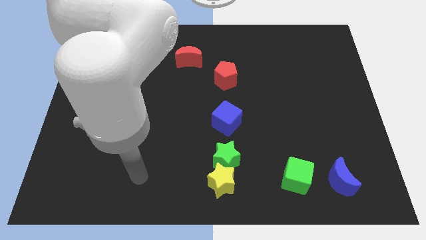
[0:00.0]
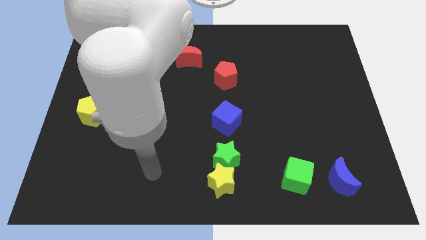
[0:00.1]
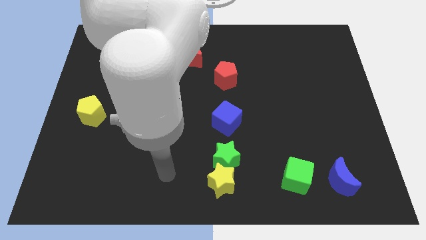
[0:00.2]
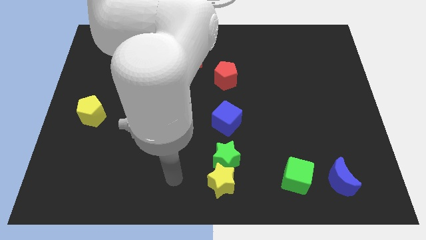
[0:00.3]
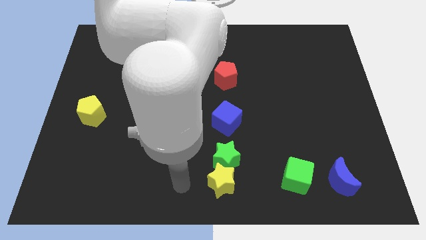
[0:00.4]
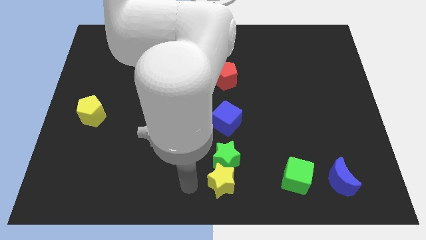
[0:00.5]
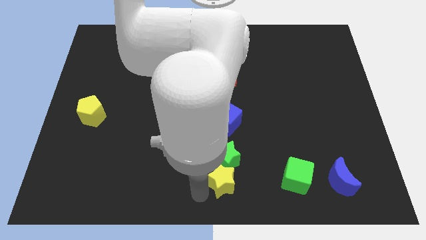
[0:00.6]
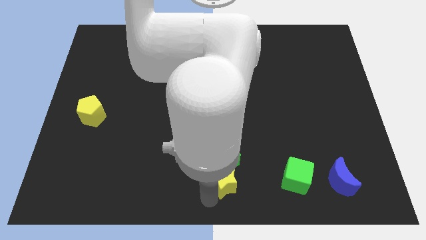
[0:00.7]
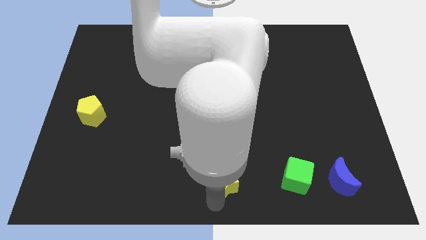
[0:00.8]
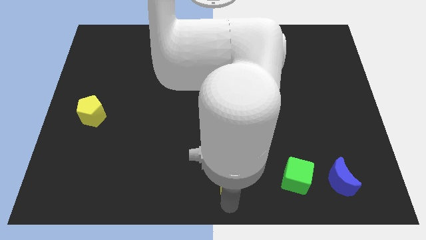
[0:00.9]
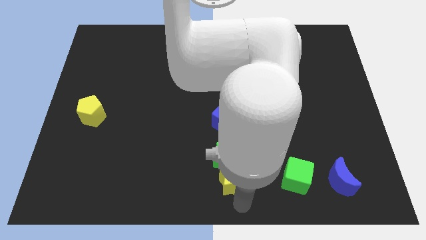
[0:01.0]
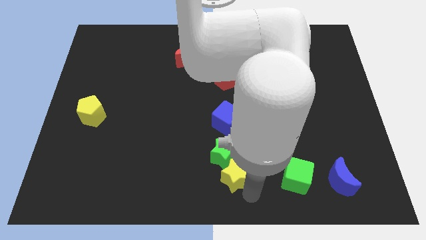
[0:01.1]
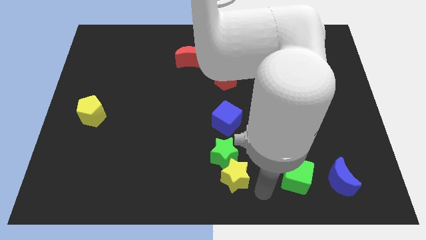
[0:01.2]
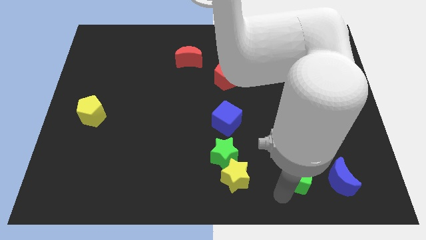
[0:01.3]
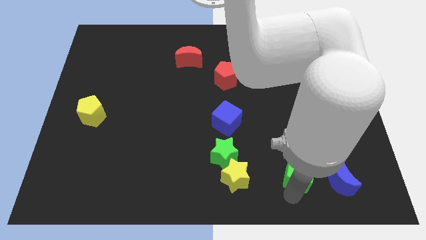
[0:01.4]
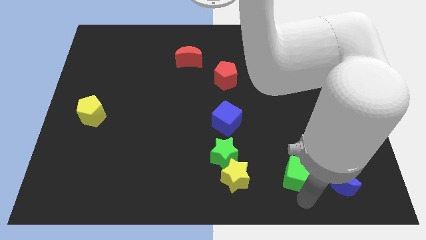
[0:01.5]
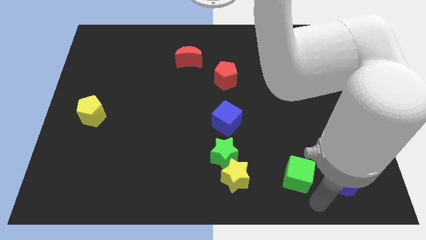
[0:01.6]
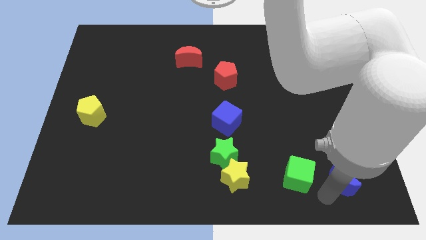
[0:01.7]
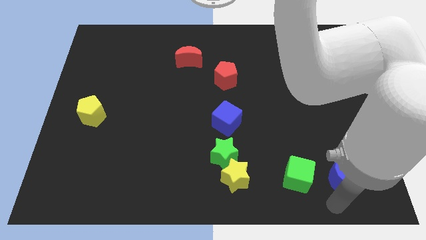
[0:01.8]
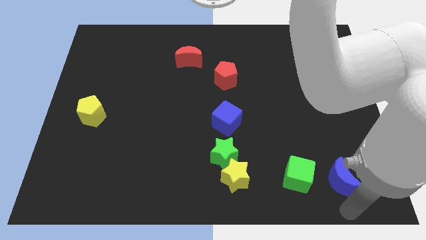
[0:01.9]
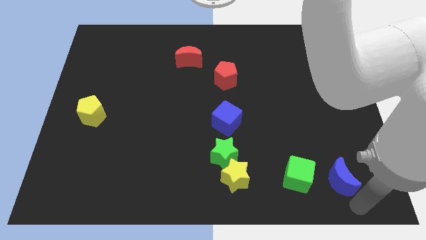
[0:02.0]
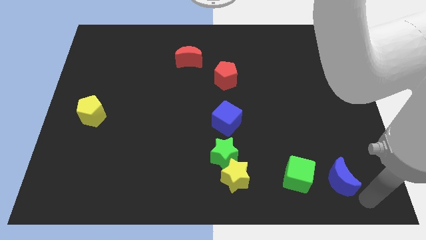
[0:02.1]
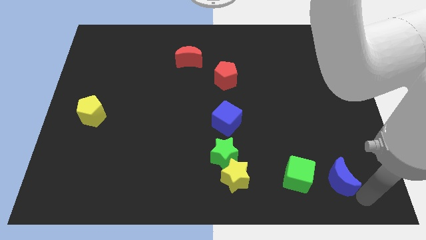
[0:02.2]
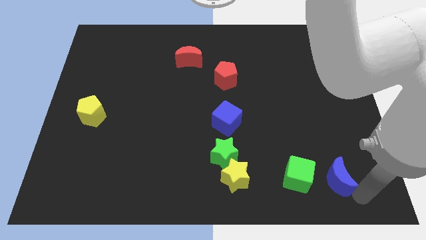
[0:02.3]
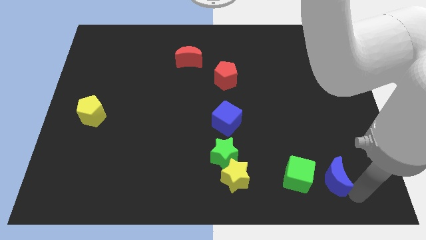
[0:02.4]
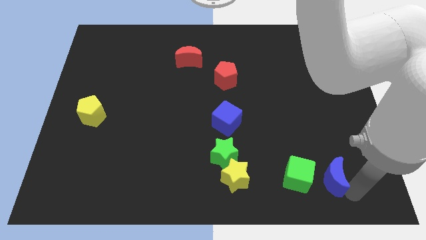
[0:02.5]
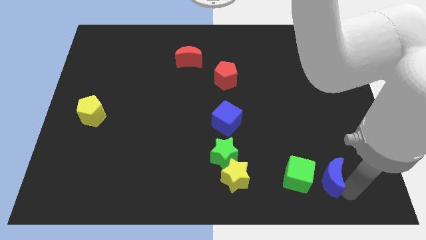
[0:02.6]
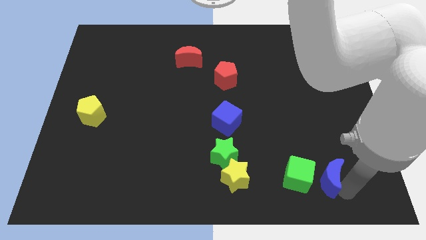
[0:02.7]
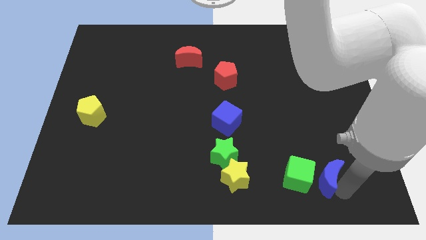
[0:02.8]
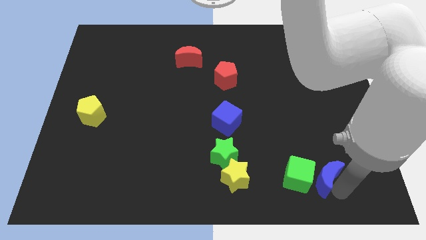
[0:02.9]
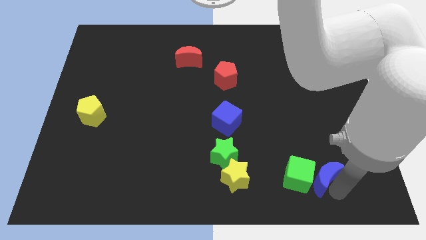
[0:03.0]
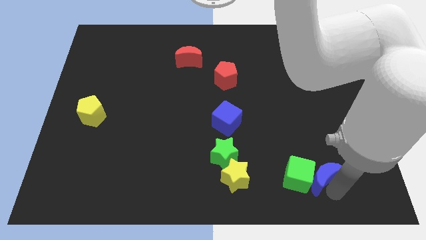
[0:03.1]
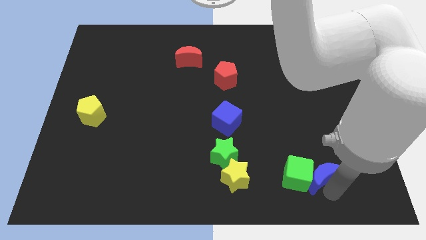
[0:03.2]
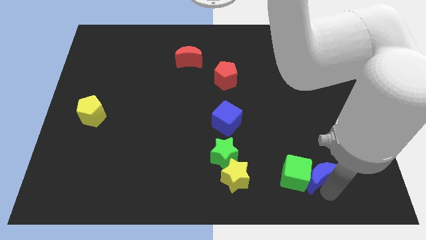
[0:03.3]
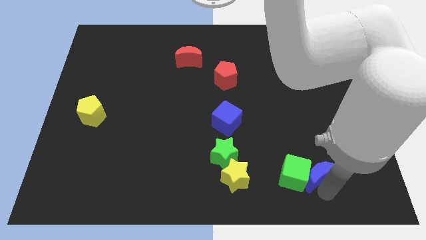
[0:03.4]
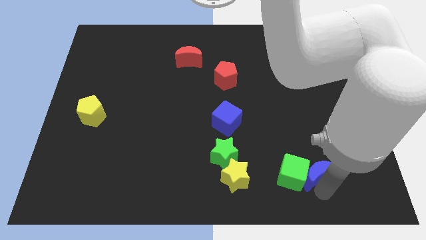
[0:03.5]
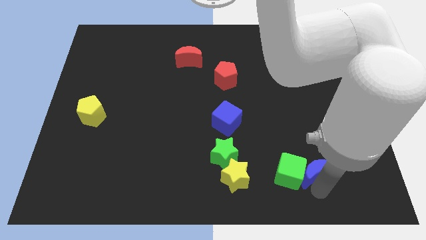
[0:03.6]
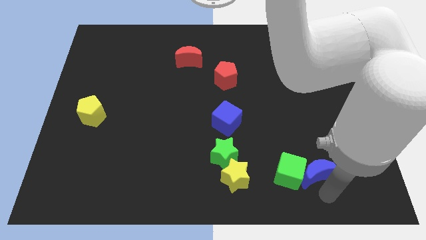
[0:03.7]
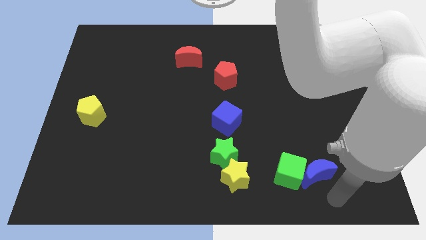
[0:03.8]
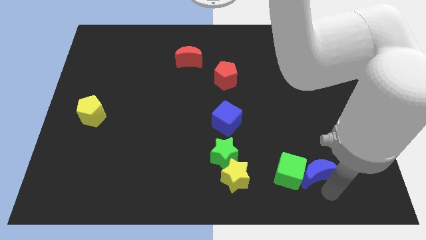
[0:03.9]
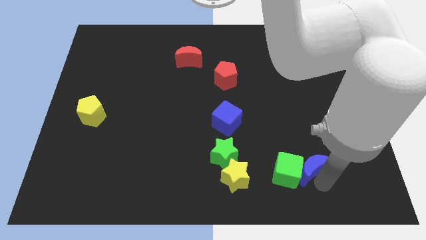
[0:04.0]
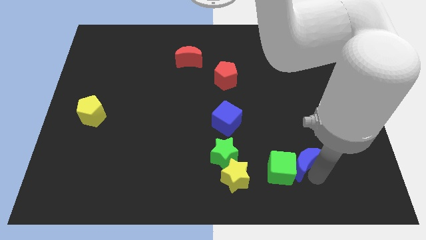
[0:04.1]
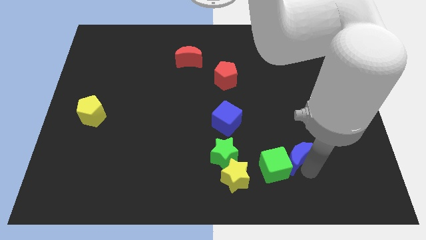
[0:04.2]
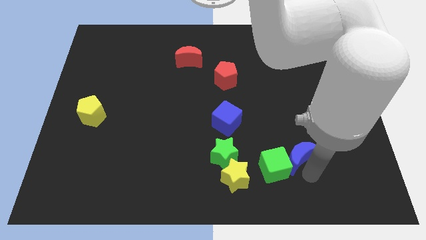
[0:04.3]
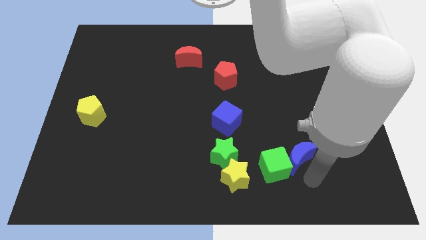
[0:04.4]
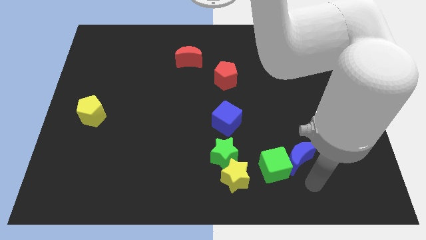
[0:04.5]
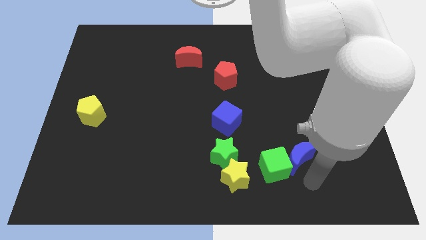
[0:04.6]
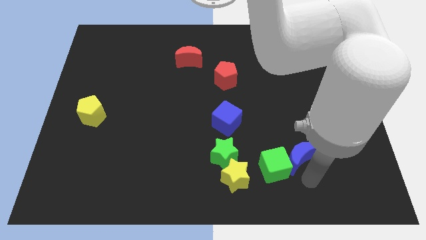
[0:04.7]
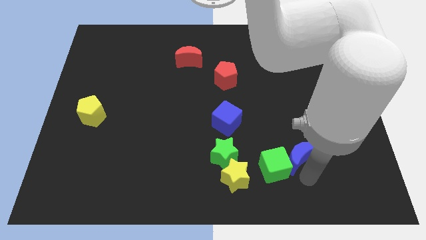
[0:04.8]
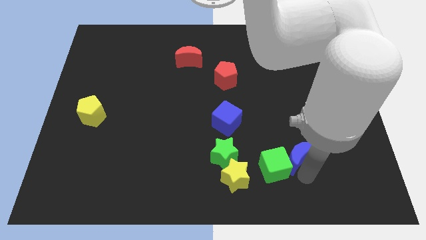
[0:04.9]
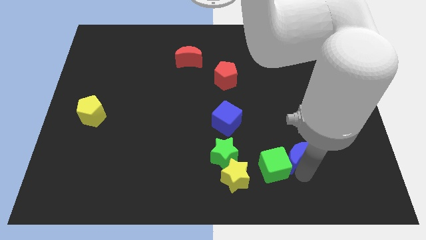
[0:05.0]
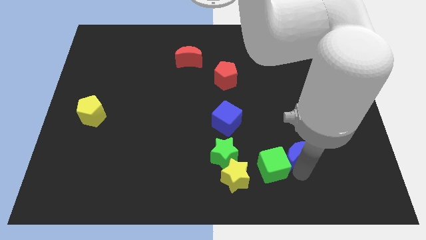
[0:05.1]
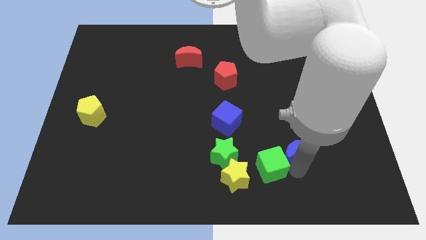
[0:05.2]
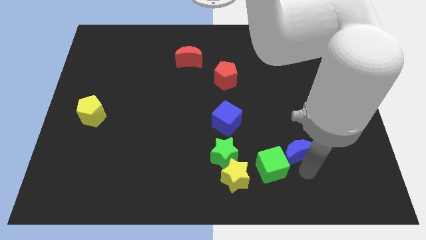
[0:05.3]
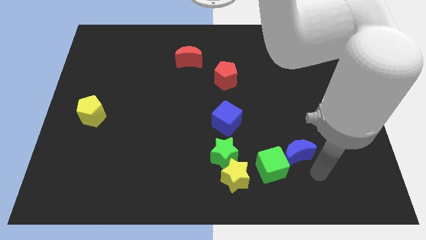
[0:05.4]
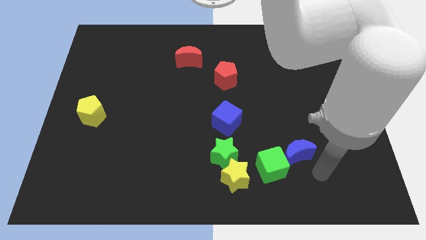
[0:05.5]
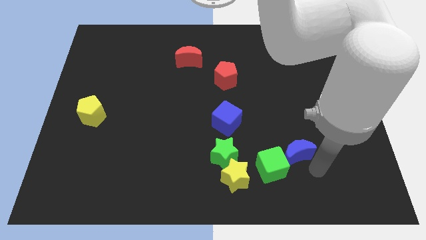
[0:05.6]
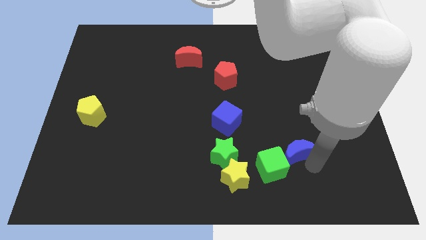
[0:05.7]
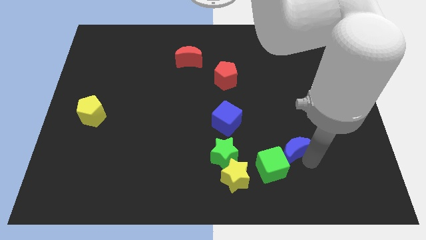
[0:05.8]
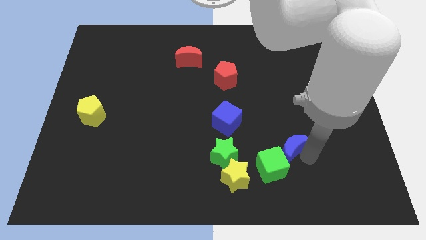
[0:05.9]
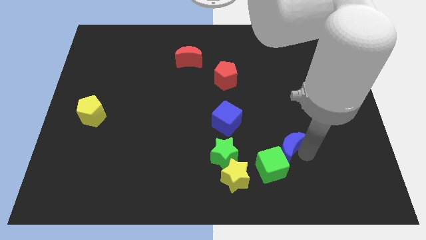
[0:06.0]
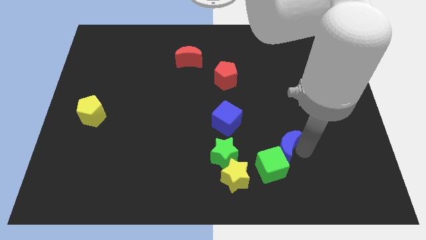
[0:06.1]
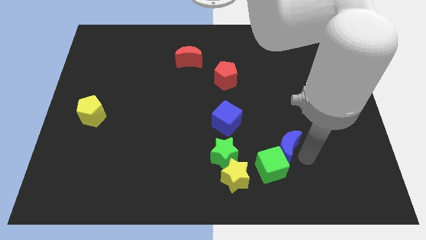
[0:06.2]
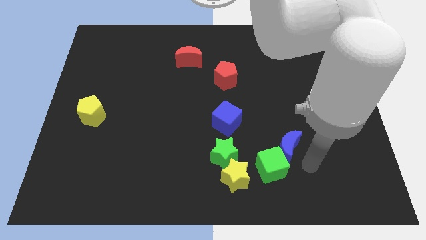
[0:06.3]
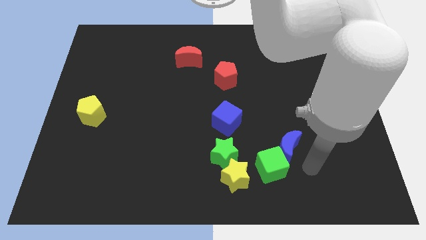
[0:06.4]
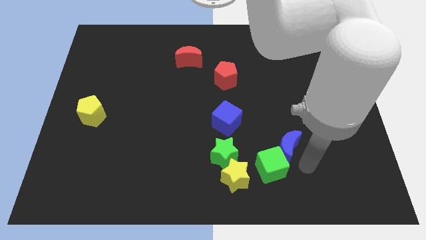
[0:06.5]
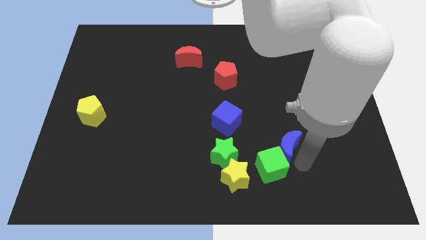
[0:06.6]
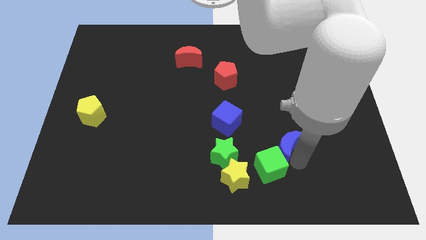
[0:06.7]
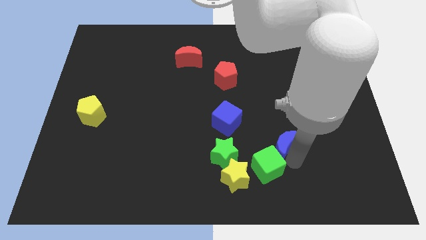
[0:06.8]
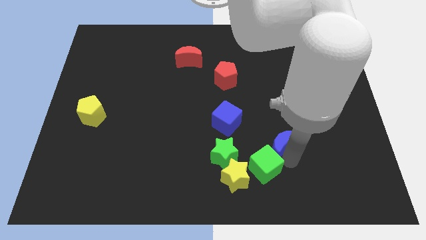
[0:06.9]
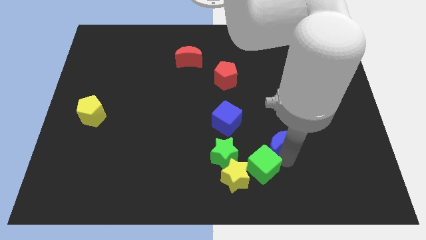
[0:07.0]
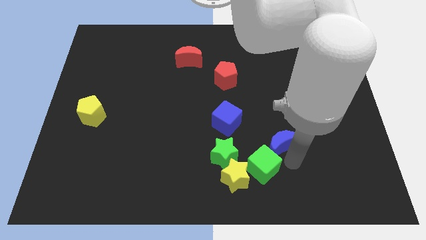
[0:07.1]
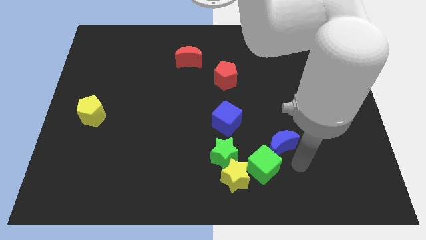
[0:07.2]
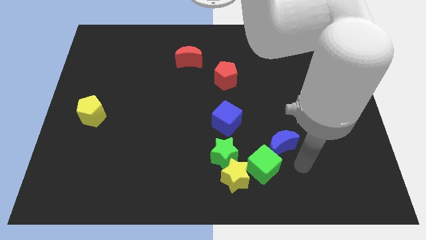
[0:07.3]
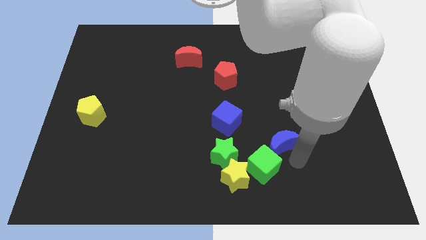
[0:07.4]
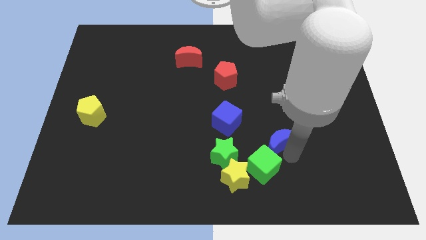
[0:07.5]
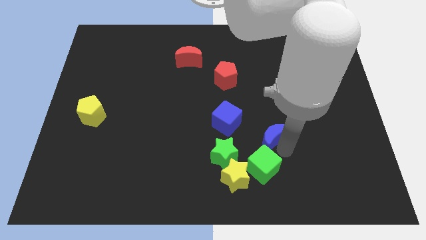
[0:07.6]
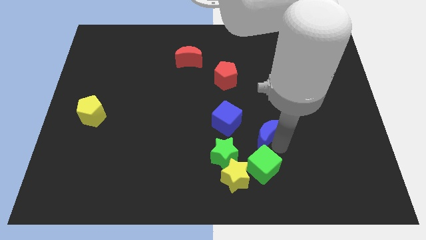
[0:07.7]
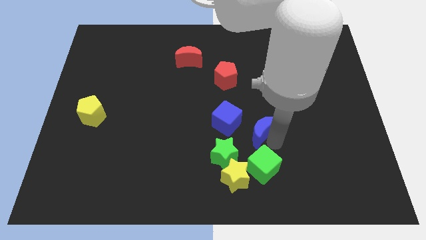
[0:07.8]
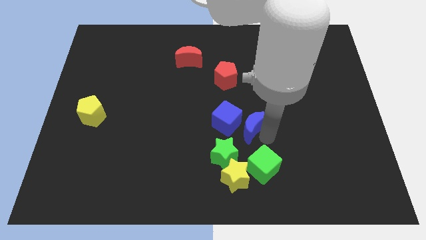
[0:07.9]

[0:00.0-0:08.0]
push the blue moon to the middle
